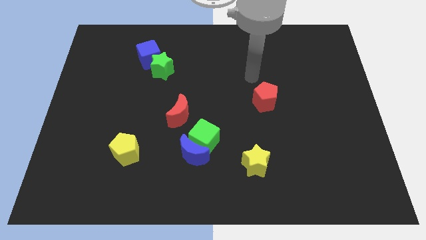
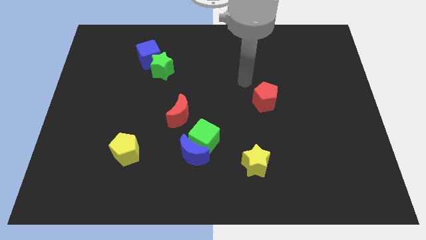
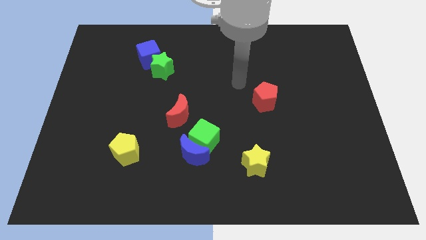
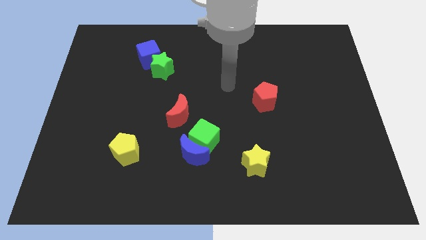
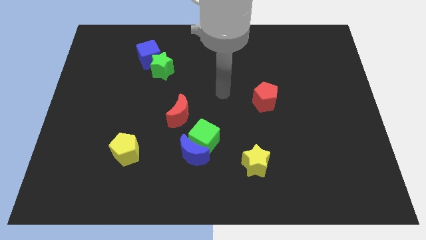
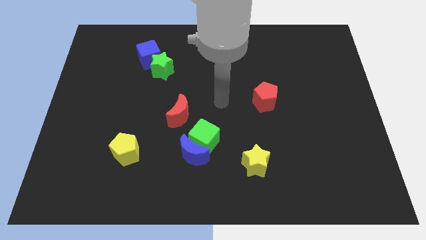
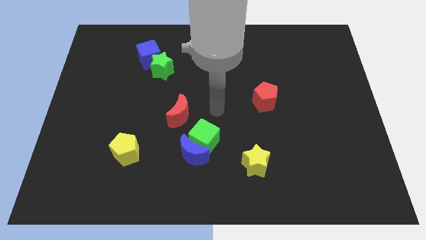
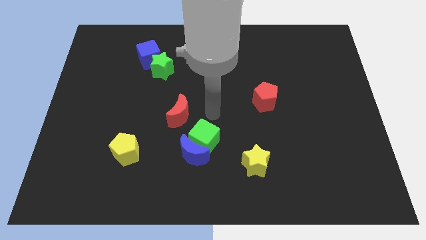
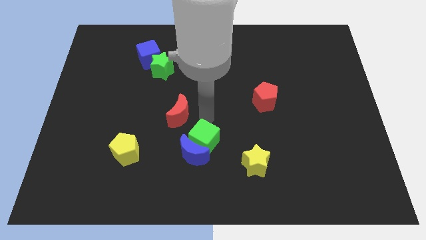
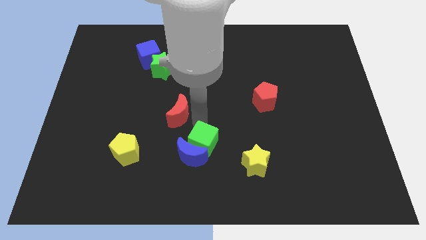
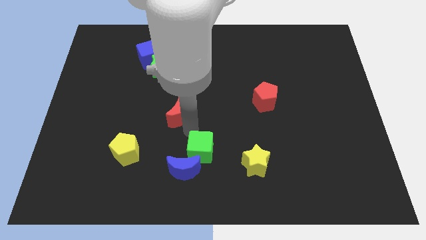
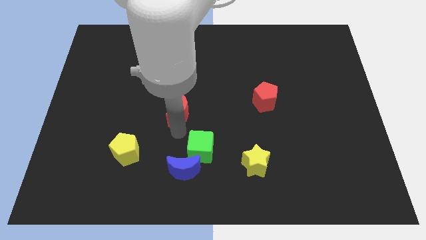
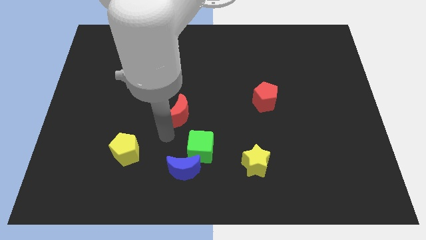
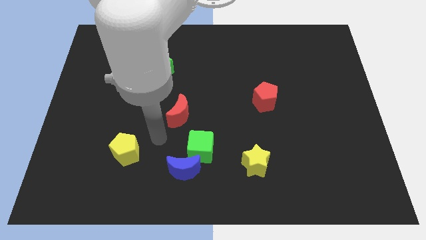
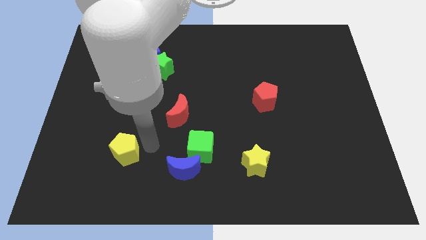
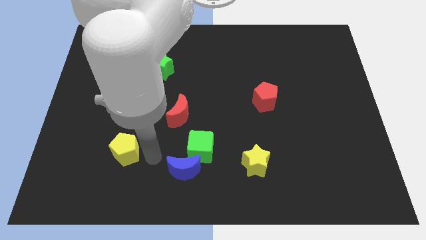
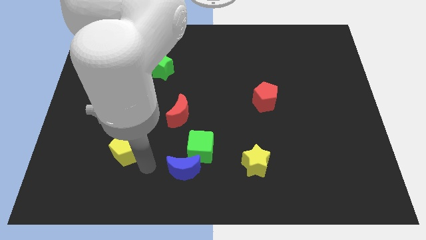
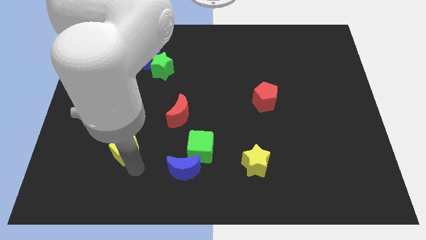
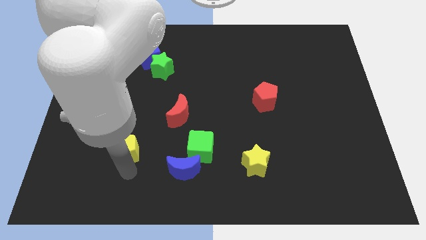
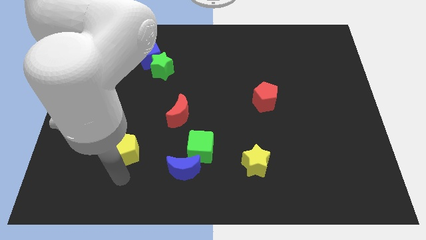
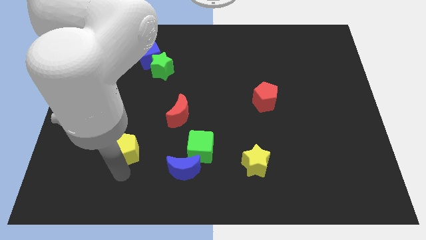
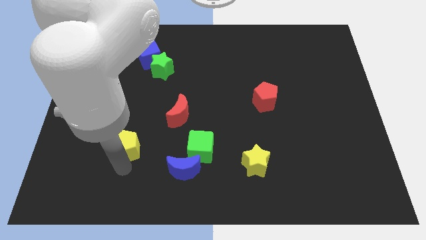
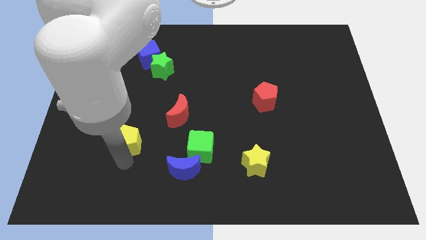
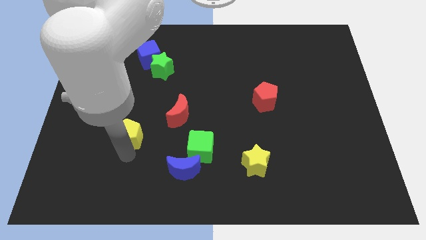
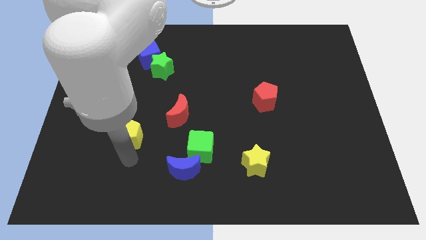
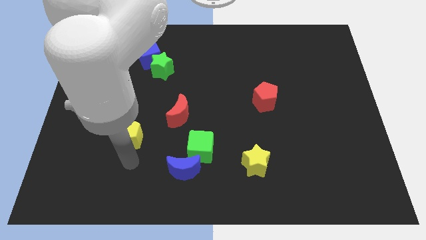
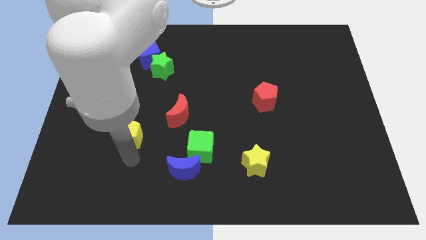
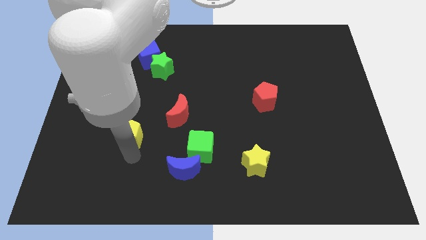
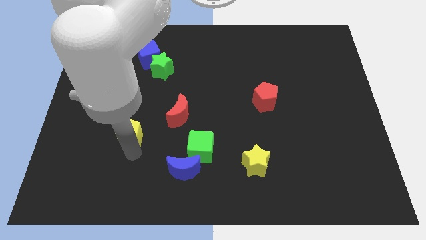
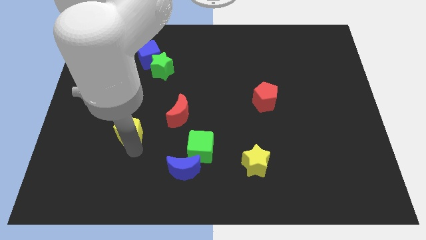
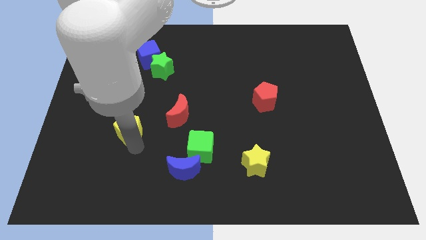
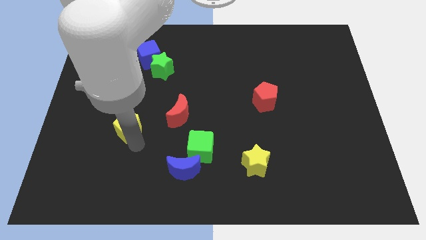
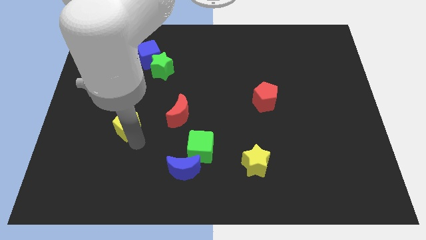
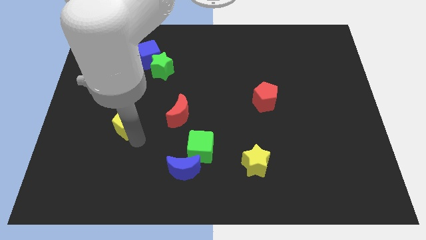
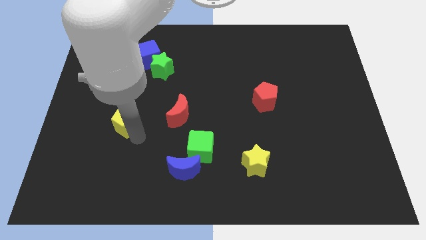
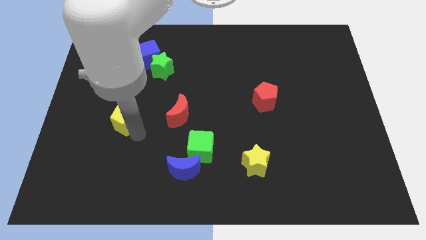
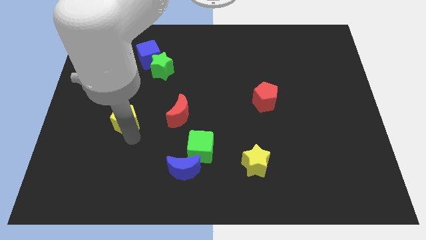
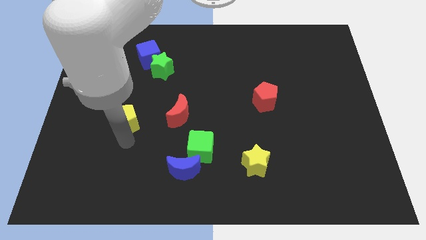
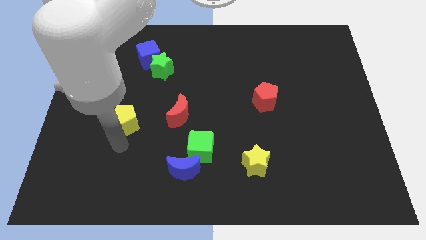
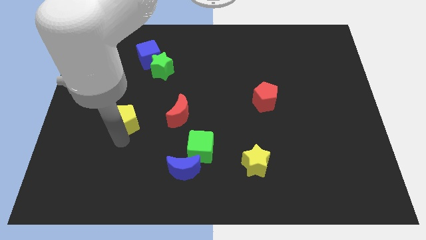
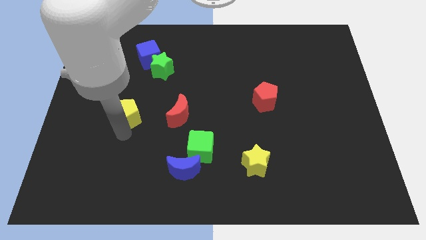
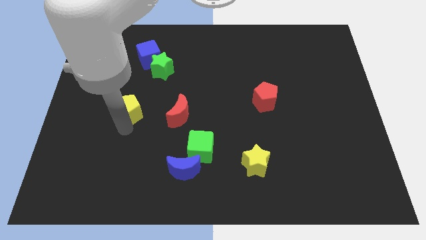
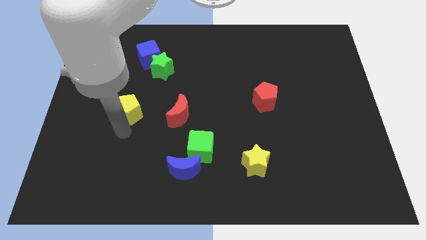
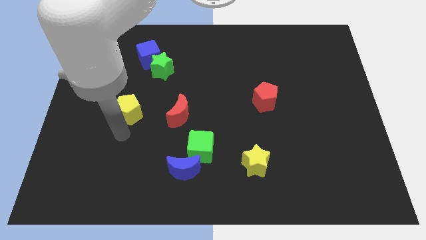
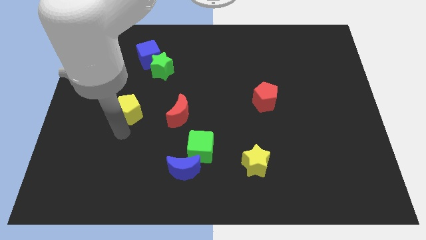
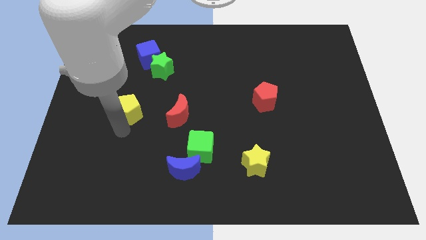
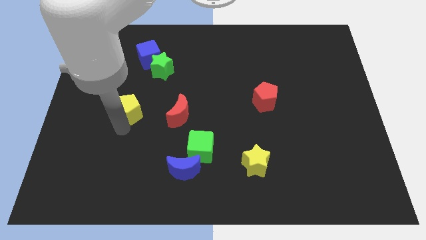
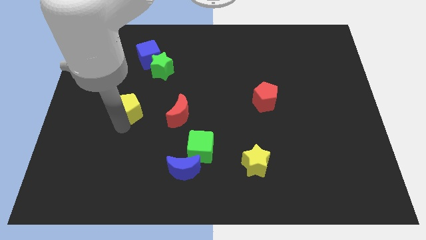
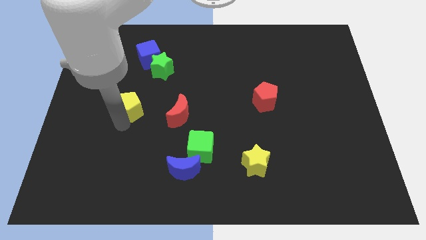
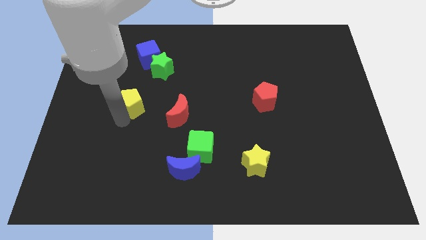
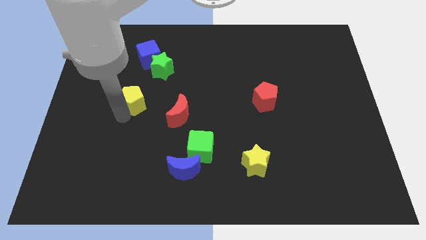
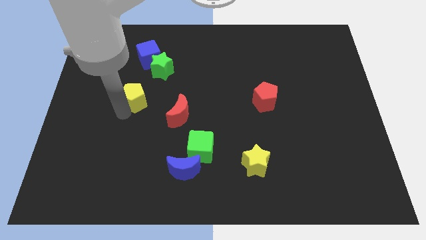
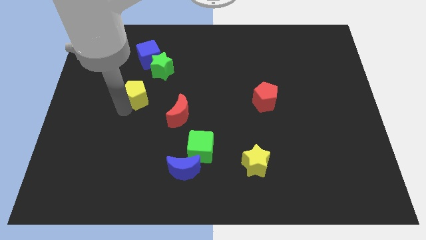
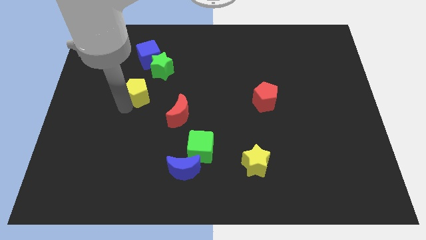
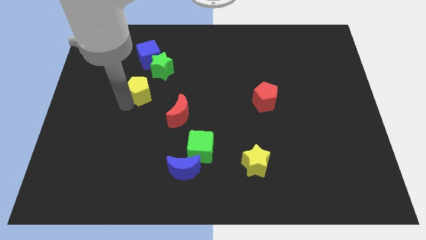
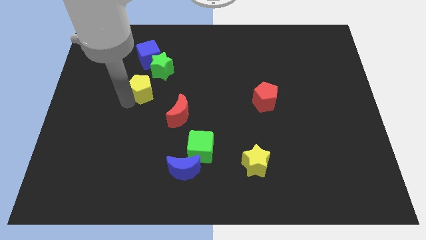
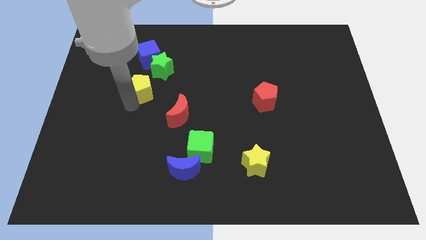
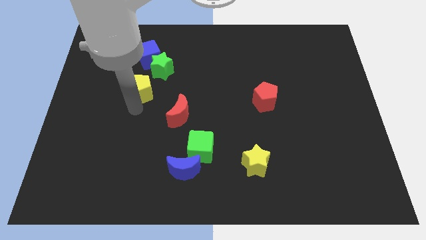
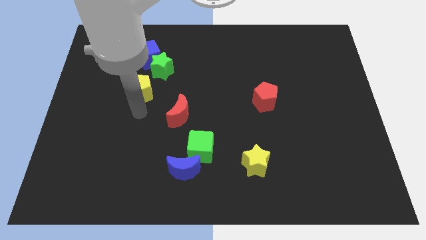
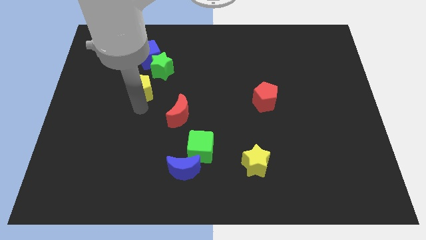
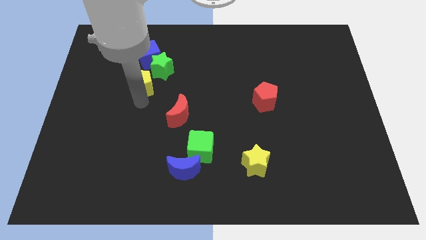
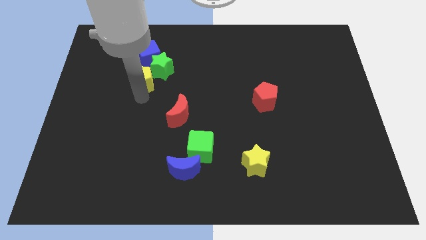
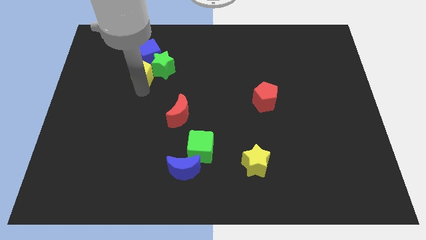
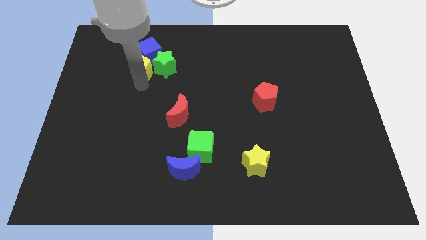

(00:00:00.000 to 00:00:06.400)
move the yellow pentagon towards the blue cube

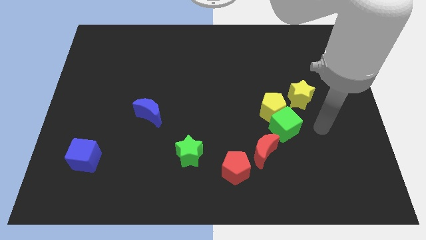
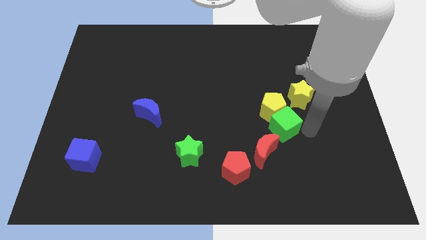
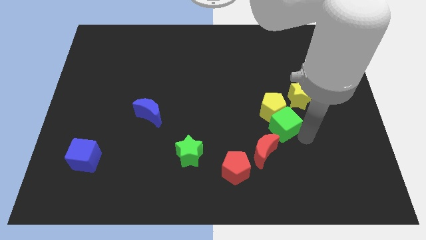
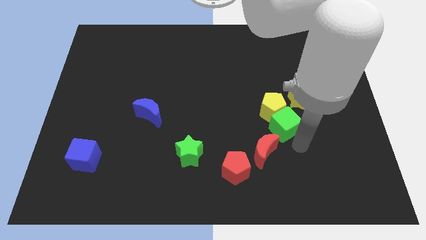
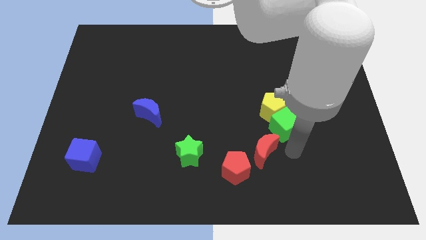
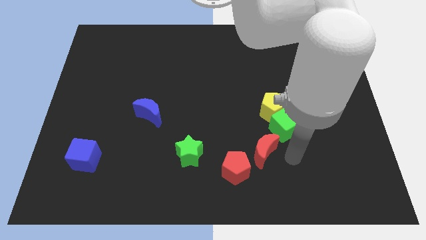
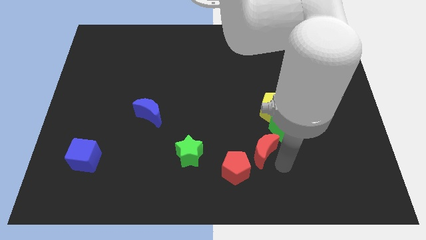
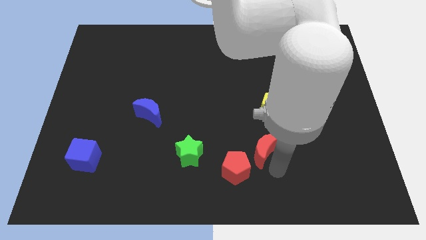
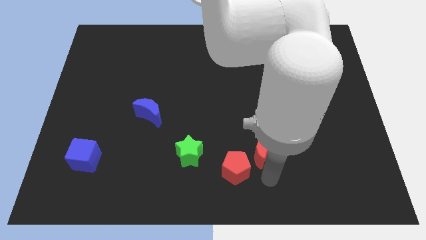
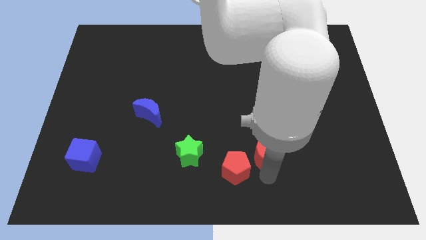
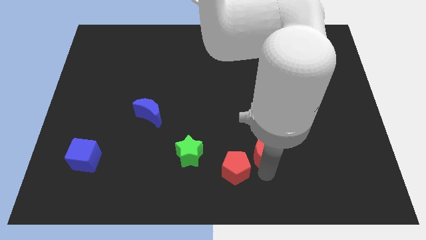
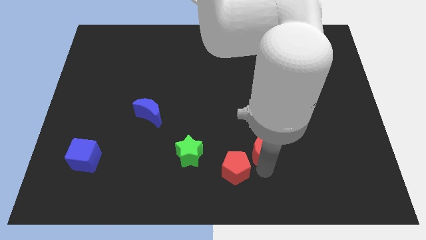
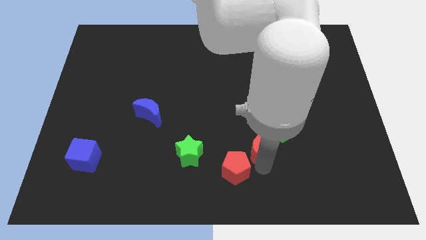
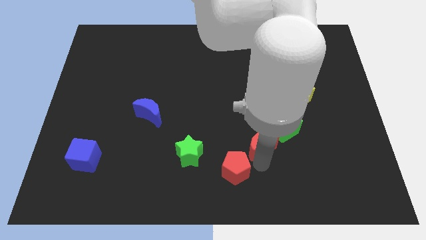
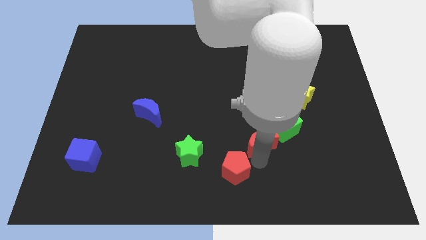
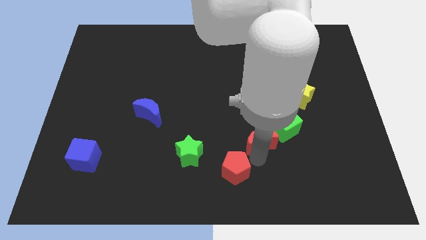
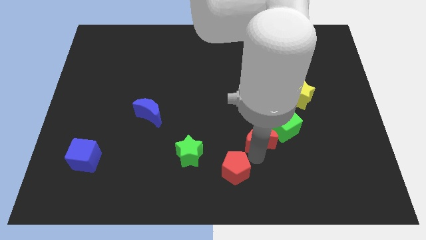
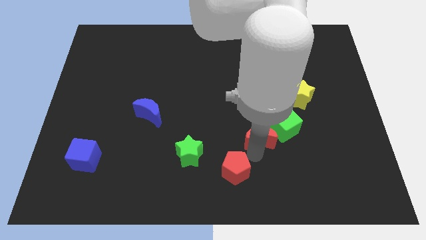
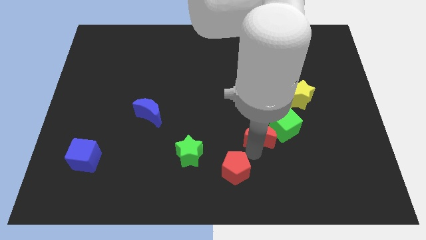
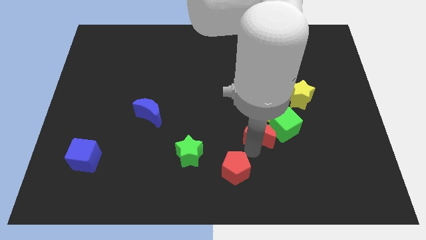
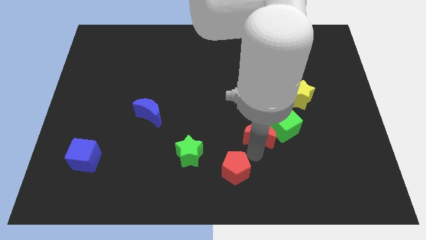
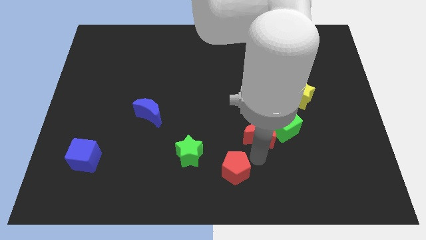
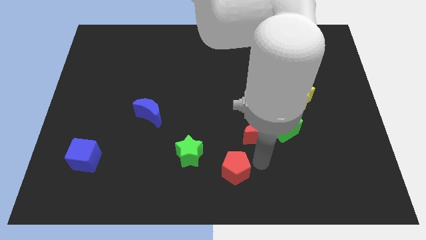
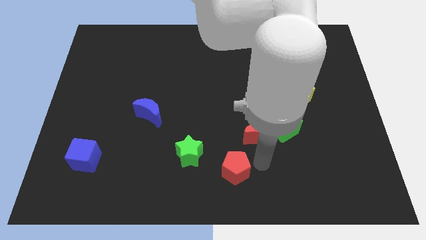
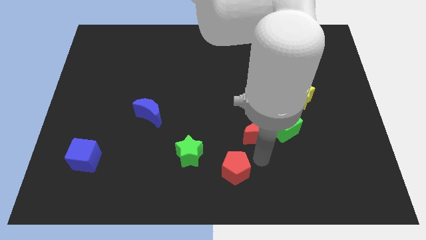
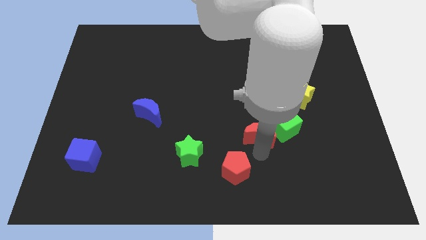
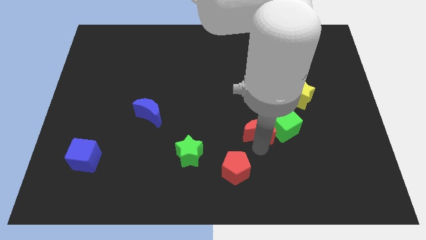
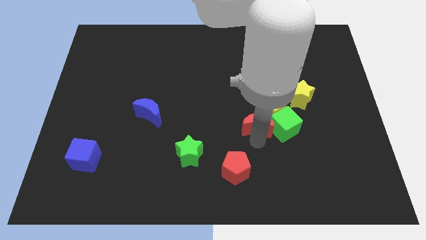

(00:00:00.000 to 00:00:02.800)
move the red moon next to the yellow pentagon
